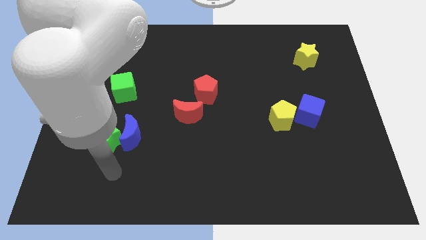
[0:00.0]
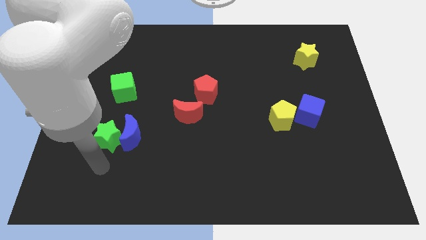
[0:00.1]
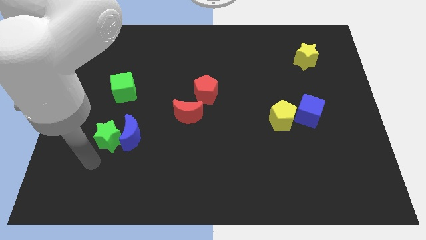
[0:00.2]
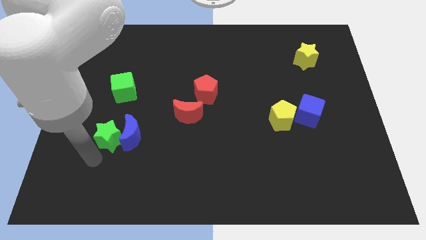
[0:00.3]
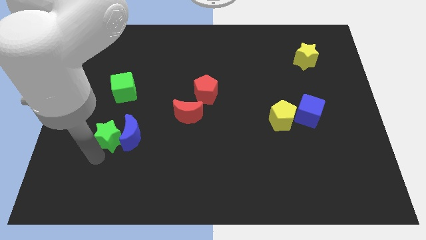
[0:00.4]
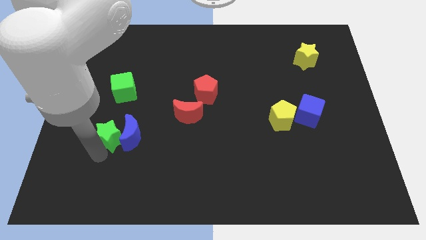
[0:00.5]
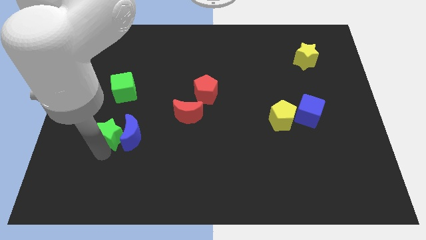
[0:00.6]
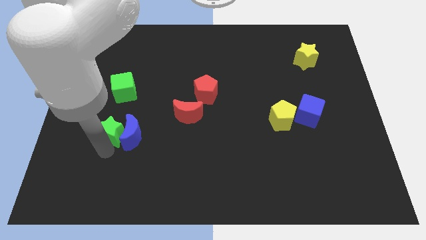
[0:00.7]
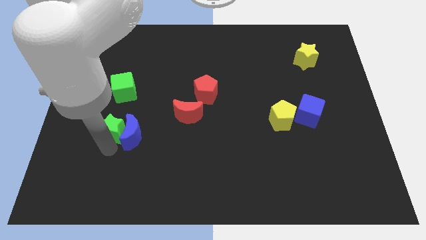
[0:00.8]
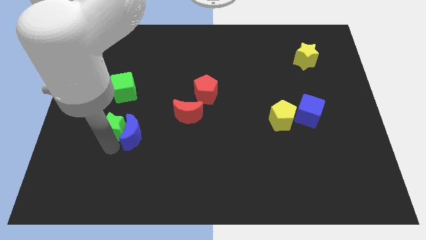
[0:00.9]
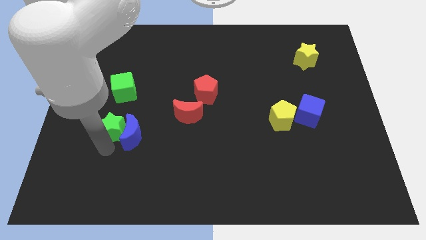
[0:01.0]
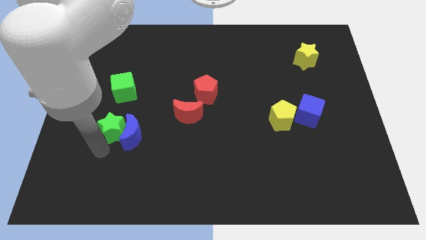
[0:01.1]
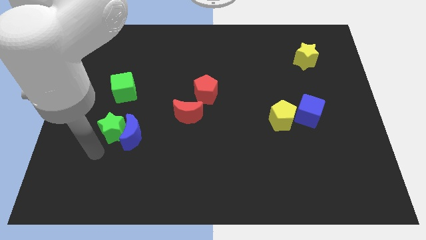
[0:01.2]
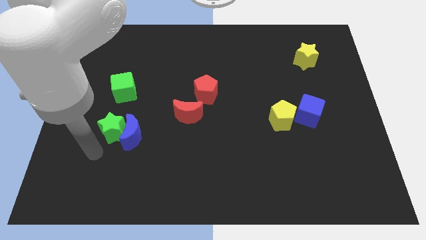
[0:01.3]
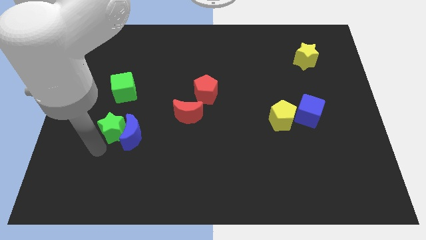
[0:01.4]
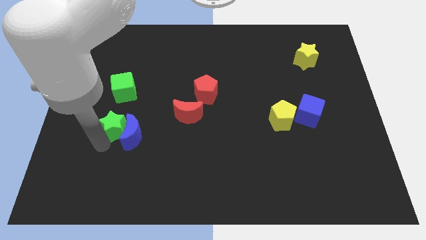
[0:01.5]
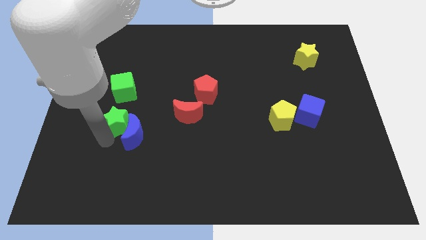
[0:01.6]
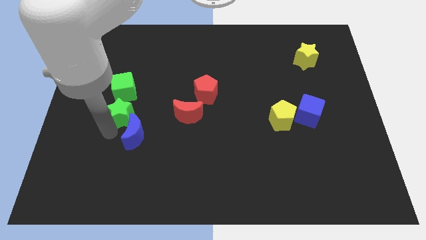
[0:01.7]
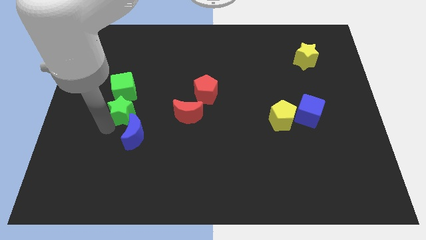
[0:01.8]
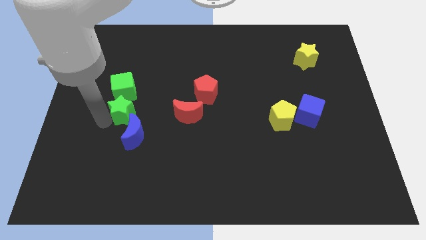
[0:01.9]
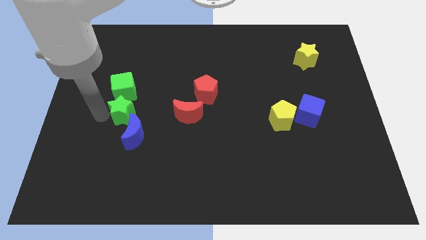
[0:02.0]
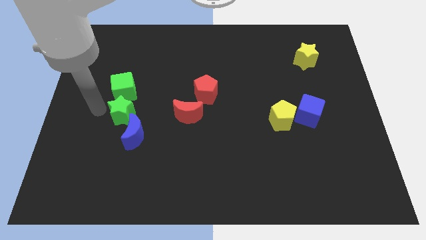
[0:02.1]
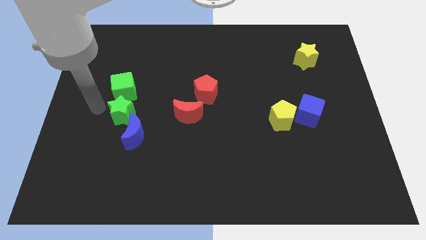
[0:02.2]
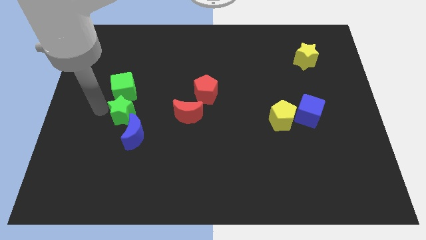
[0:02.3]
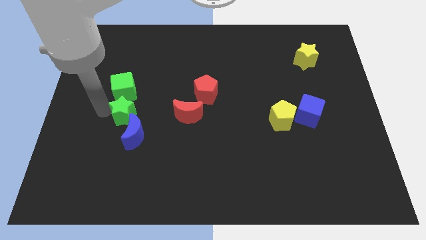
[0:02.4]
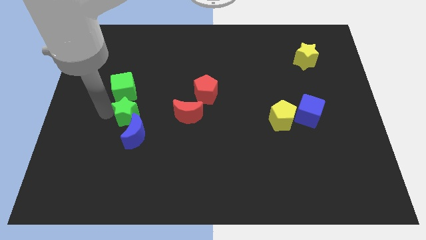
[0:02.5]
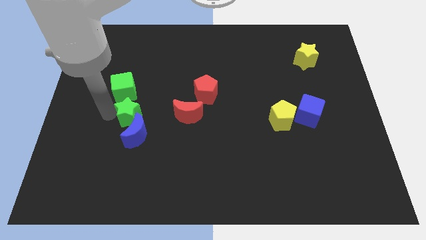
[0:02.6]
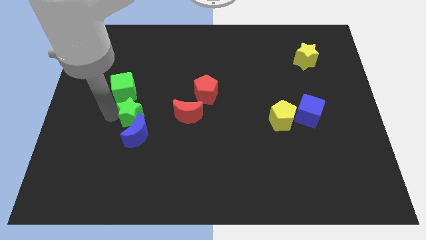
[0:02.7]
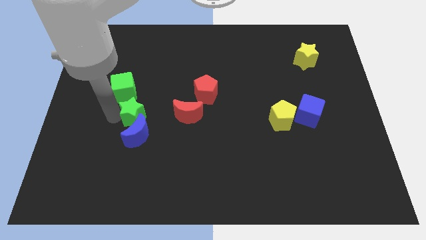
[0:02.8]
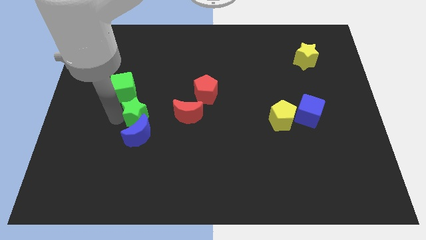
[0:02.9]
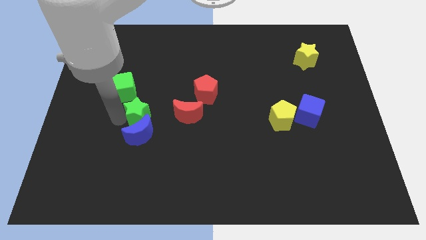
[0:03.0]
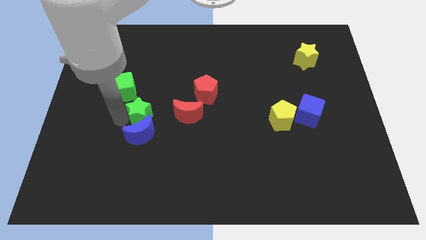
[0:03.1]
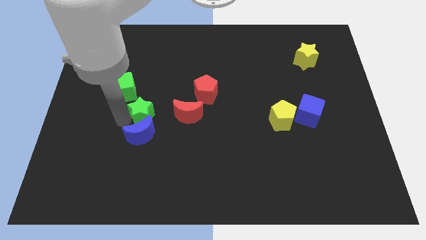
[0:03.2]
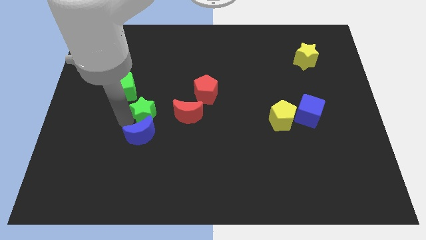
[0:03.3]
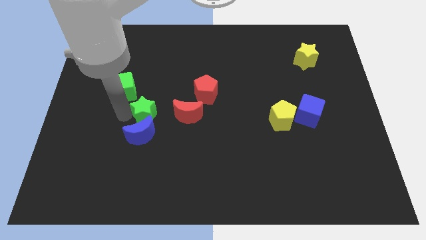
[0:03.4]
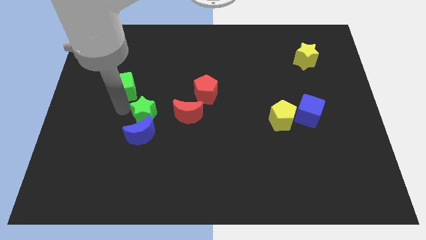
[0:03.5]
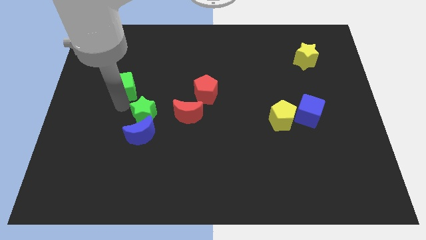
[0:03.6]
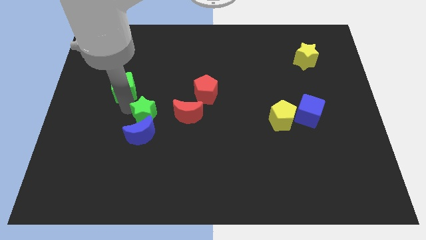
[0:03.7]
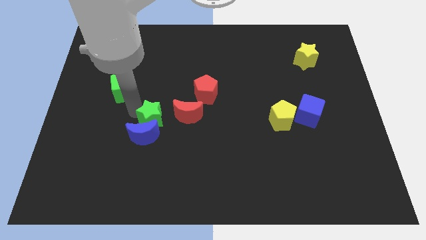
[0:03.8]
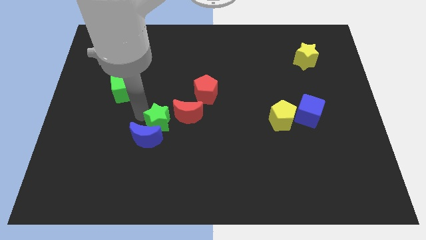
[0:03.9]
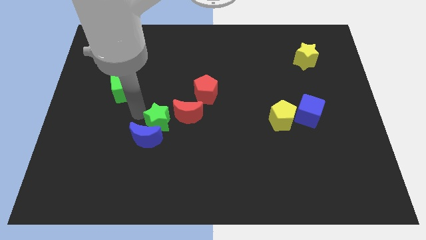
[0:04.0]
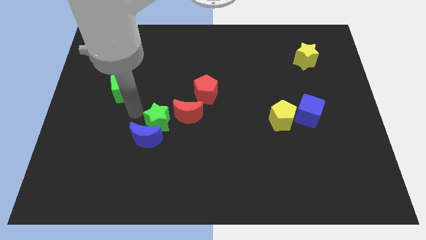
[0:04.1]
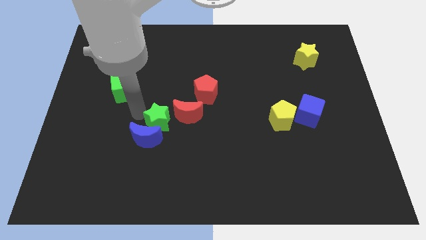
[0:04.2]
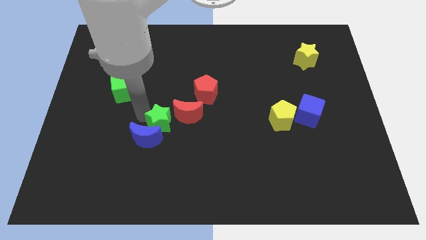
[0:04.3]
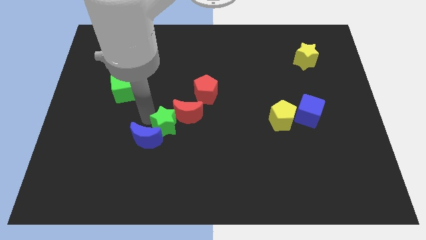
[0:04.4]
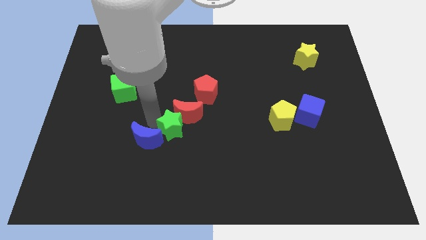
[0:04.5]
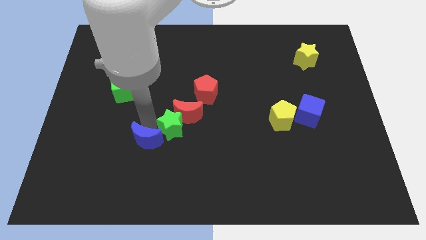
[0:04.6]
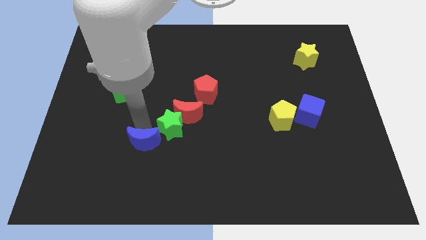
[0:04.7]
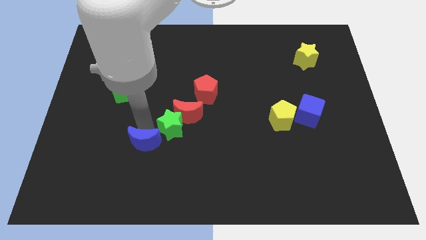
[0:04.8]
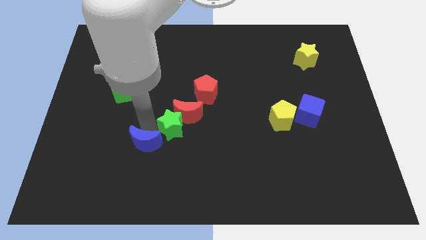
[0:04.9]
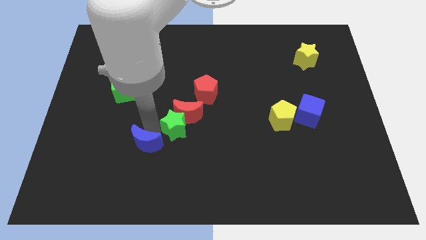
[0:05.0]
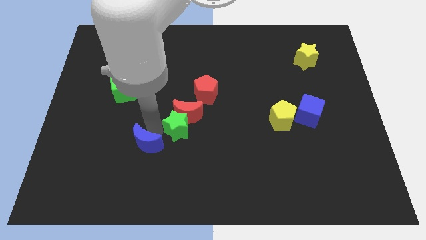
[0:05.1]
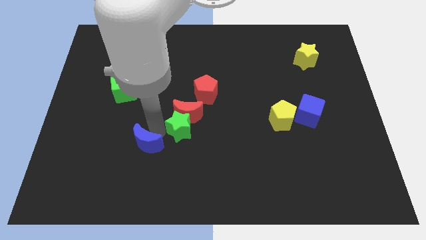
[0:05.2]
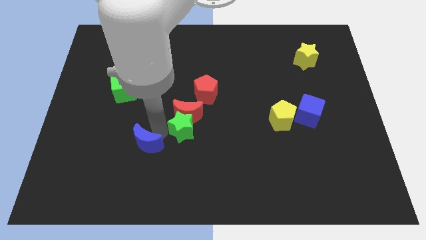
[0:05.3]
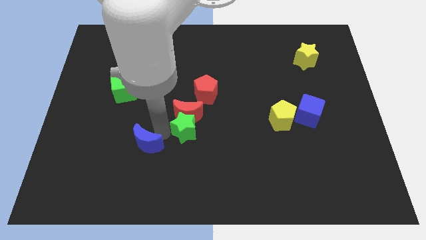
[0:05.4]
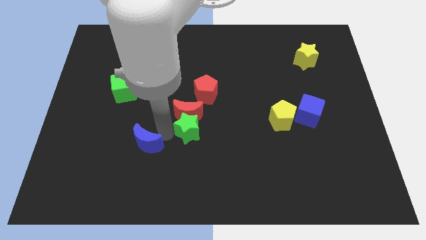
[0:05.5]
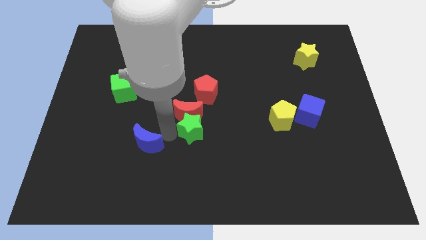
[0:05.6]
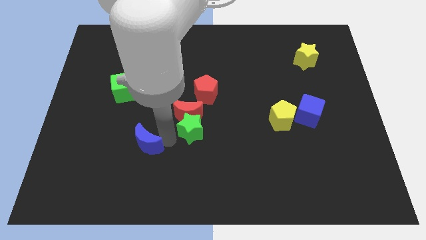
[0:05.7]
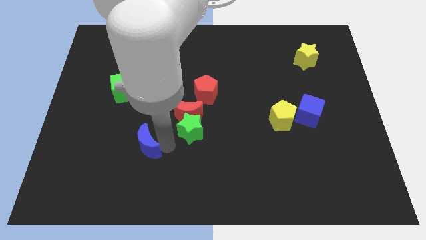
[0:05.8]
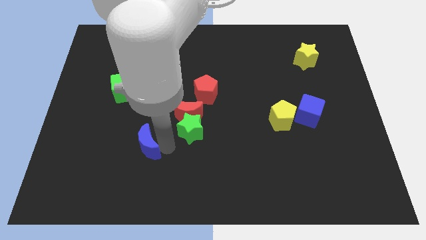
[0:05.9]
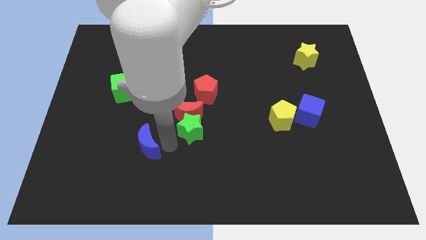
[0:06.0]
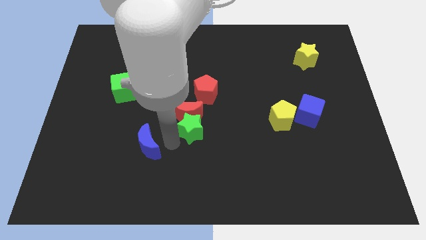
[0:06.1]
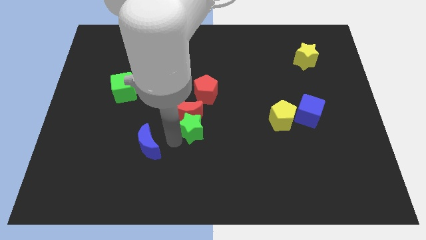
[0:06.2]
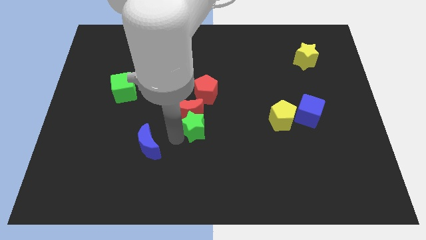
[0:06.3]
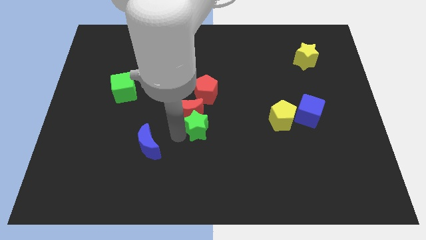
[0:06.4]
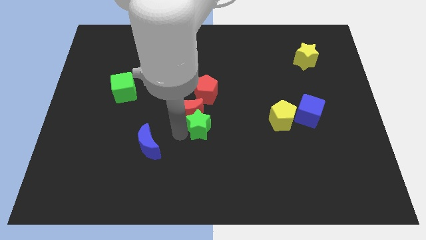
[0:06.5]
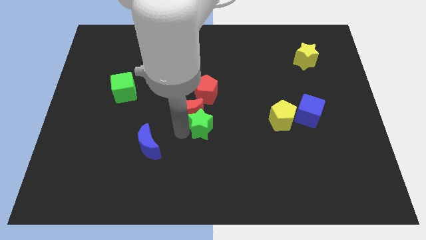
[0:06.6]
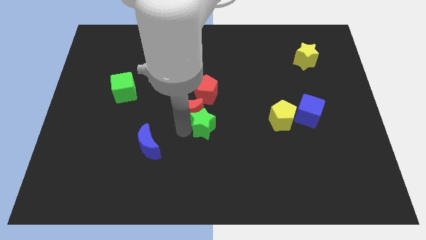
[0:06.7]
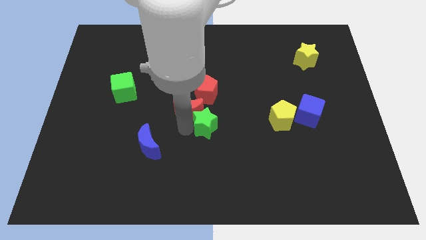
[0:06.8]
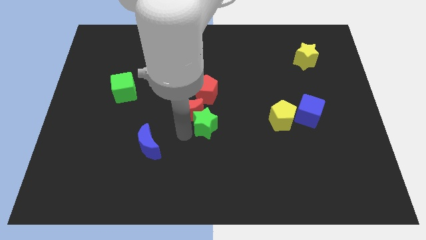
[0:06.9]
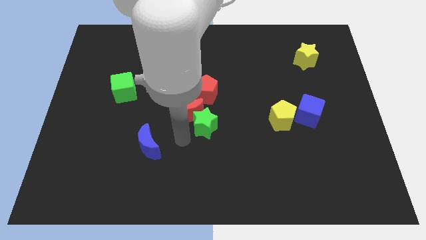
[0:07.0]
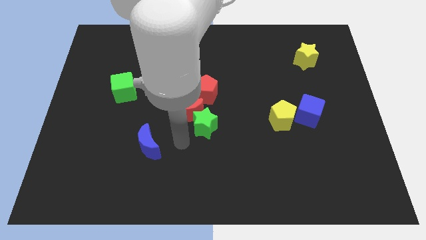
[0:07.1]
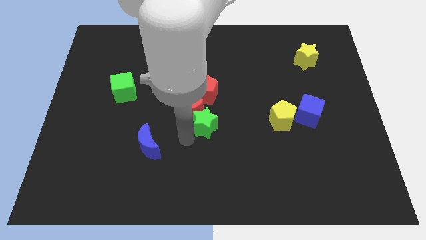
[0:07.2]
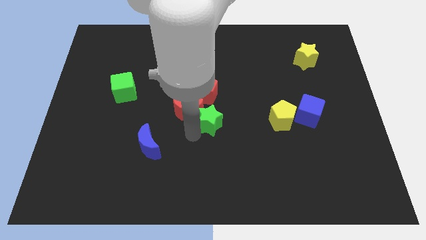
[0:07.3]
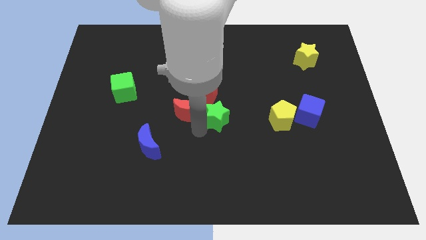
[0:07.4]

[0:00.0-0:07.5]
move the green star diagonally down and to the right of the red pentagon
